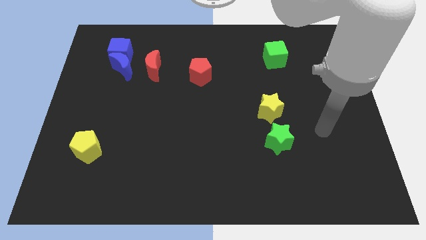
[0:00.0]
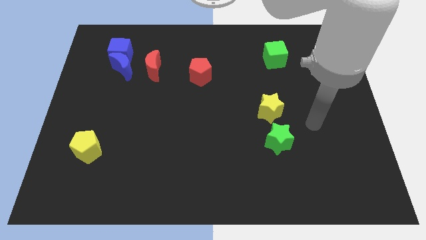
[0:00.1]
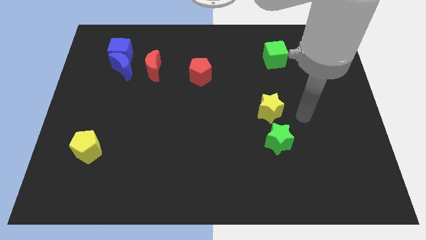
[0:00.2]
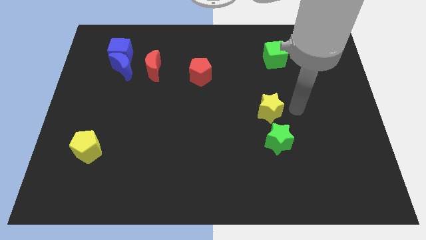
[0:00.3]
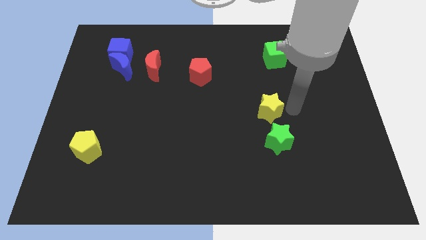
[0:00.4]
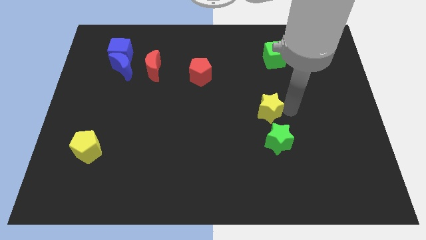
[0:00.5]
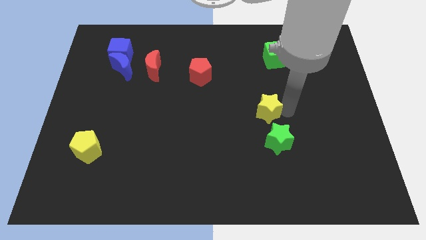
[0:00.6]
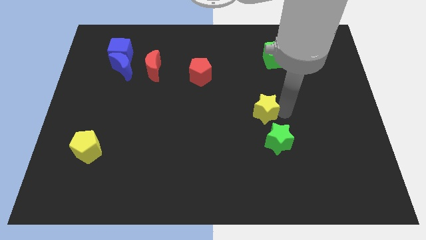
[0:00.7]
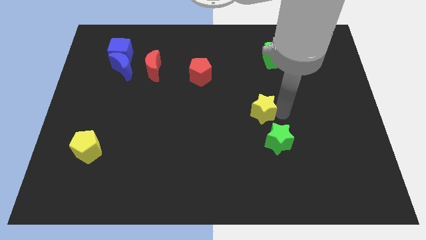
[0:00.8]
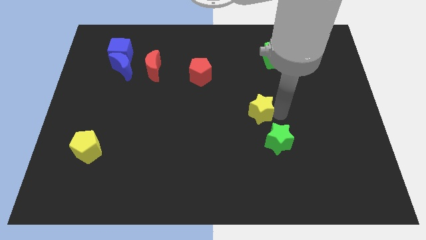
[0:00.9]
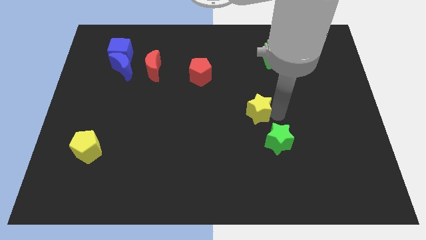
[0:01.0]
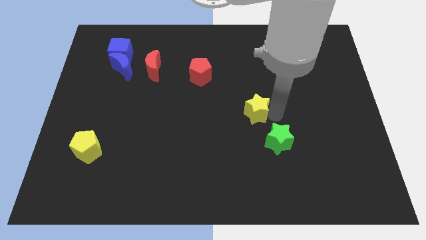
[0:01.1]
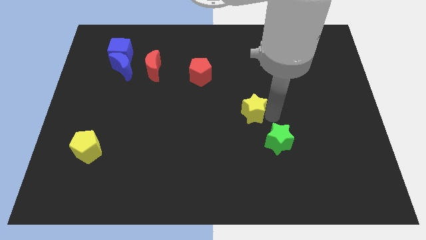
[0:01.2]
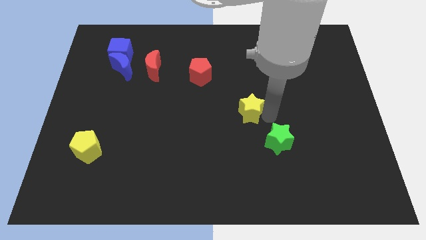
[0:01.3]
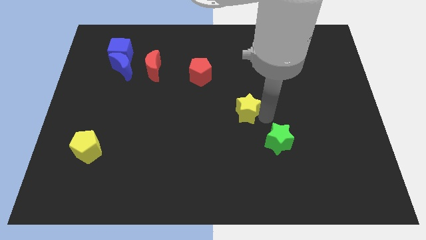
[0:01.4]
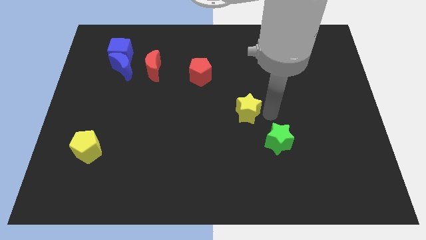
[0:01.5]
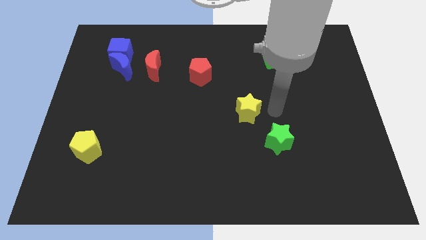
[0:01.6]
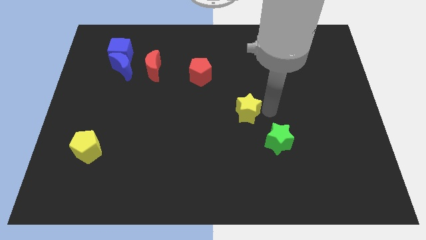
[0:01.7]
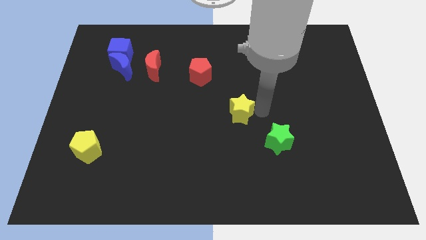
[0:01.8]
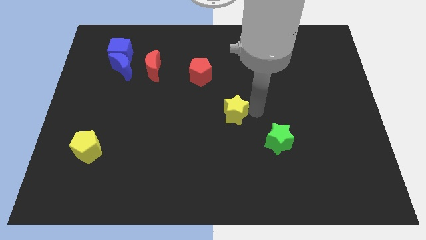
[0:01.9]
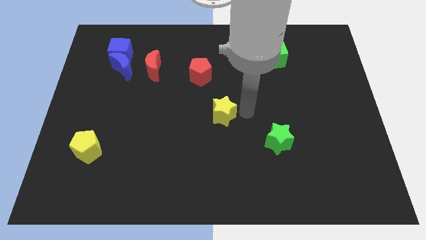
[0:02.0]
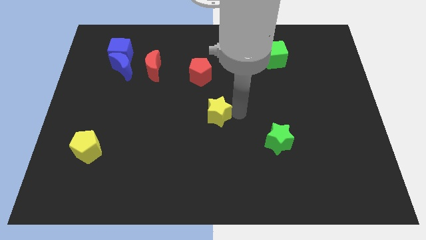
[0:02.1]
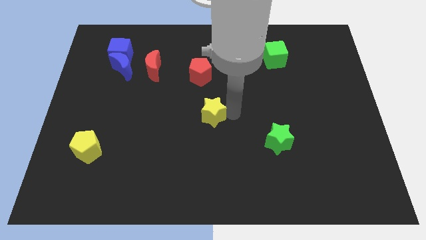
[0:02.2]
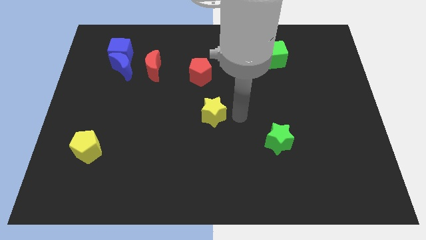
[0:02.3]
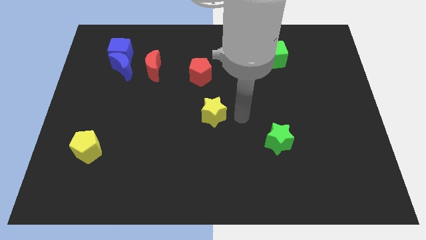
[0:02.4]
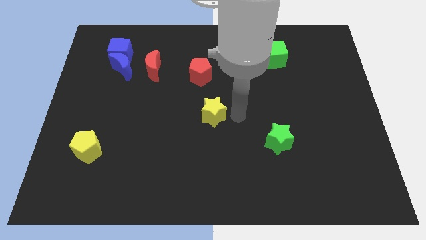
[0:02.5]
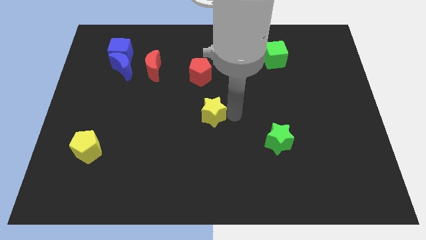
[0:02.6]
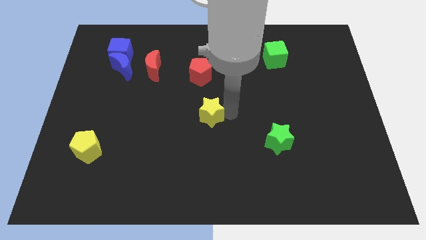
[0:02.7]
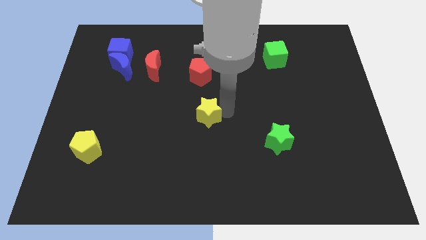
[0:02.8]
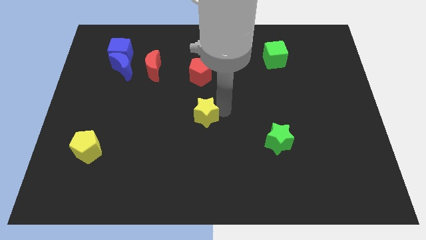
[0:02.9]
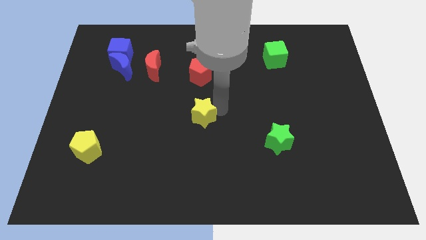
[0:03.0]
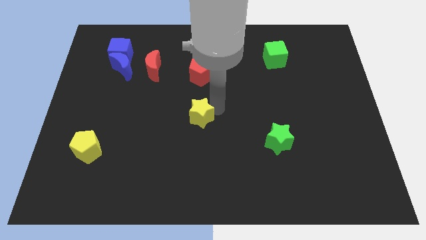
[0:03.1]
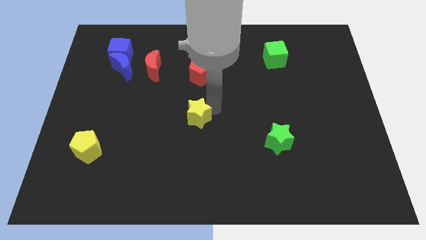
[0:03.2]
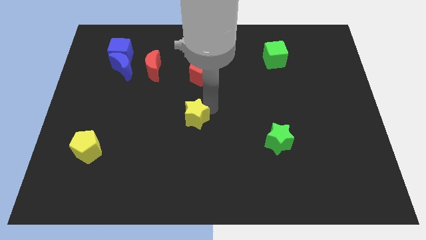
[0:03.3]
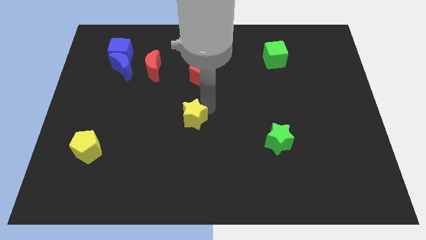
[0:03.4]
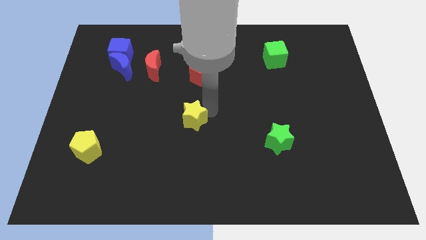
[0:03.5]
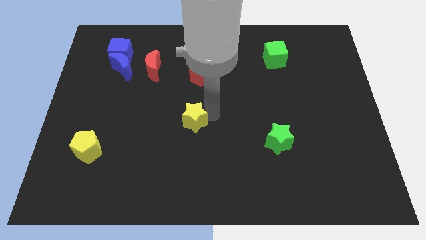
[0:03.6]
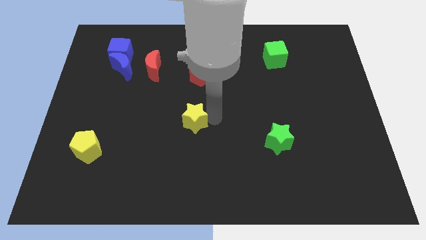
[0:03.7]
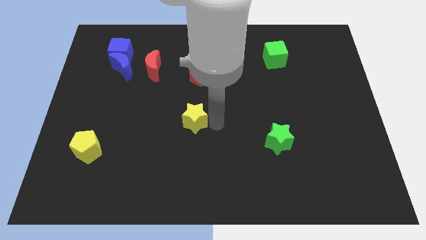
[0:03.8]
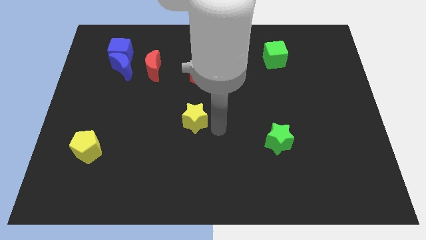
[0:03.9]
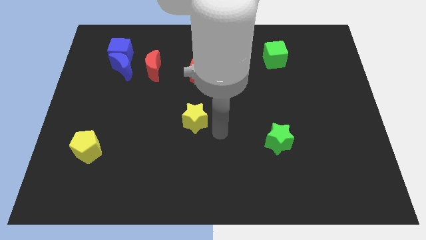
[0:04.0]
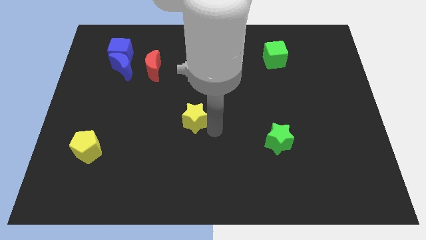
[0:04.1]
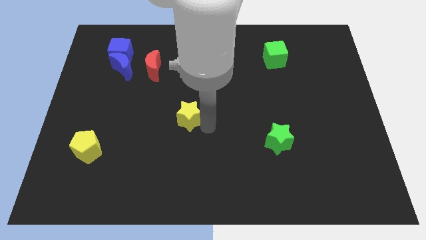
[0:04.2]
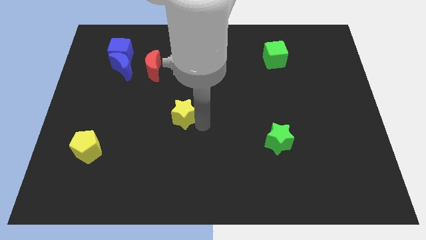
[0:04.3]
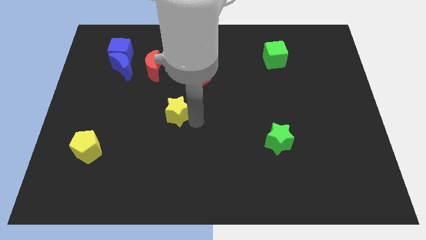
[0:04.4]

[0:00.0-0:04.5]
push the yellow star left

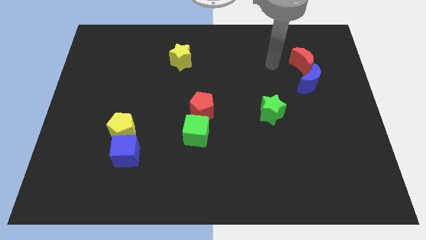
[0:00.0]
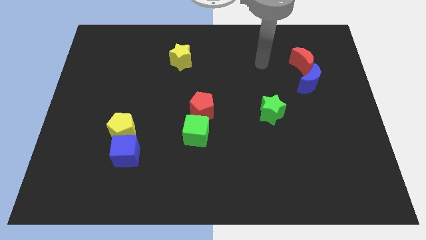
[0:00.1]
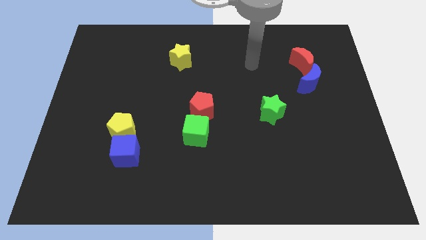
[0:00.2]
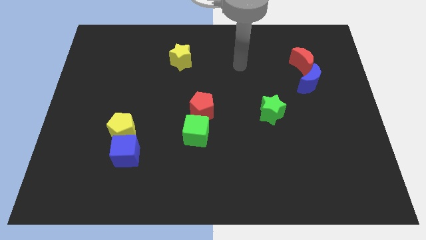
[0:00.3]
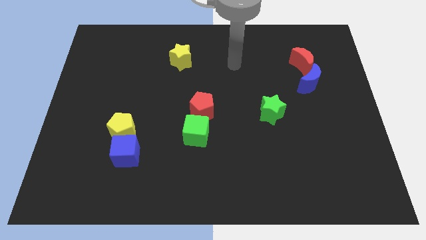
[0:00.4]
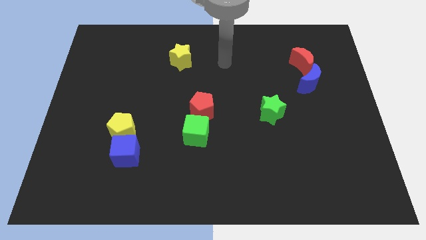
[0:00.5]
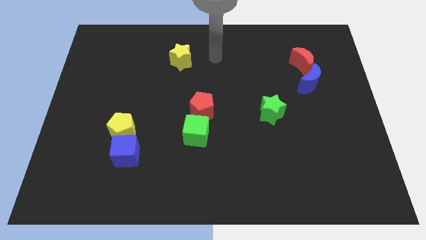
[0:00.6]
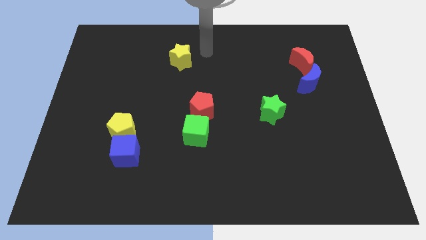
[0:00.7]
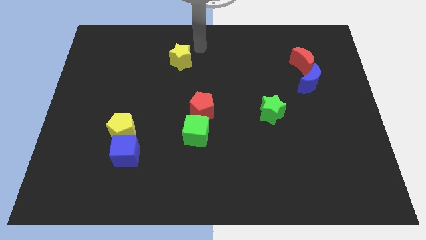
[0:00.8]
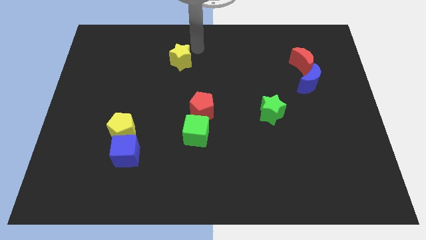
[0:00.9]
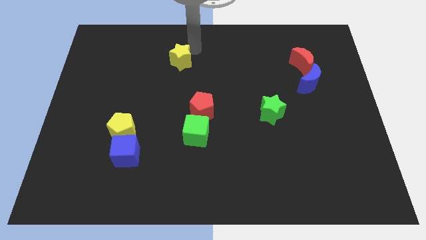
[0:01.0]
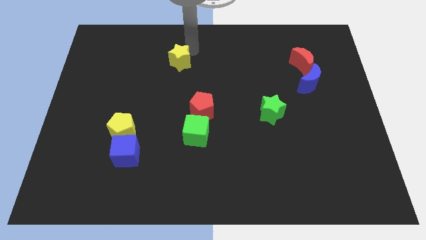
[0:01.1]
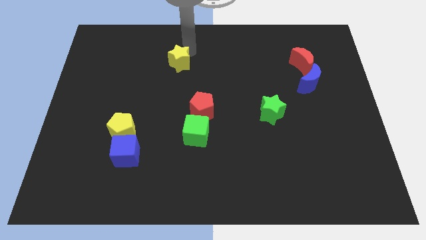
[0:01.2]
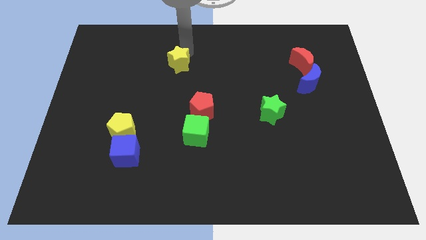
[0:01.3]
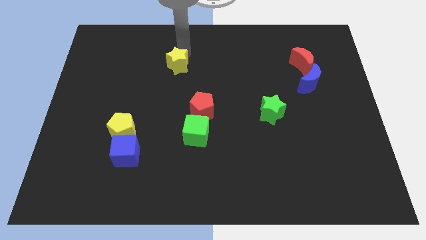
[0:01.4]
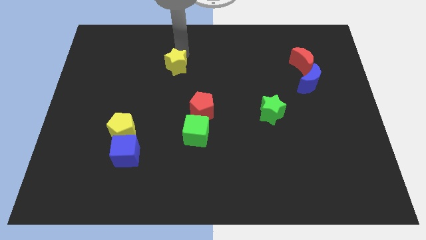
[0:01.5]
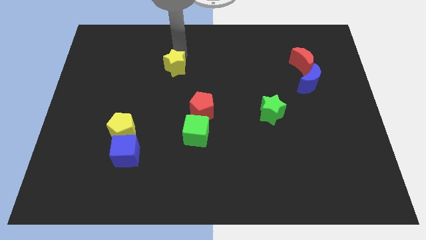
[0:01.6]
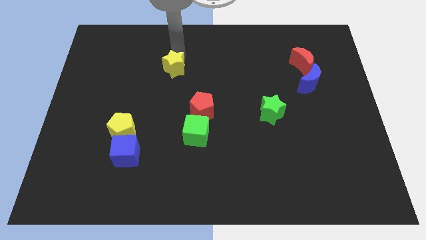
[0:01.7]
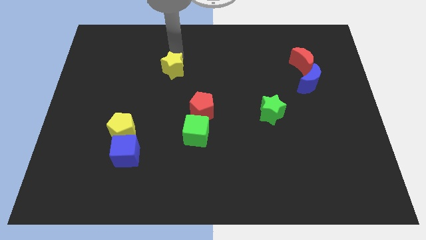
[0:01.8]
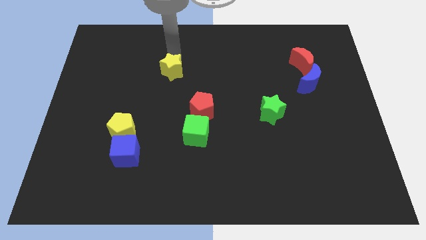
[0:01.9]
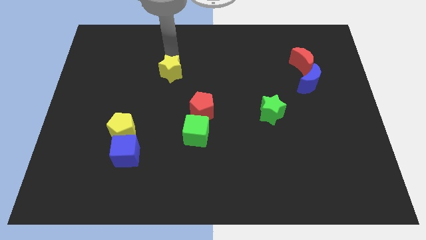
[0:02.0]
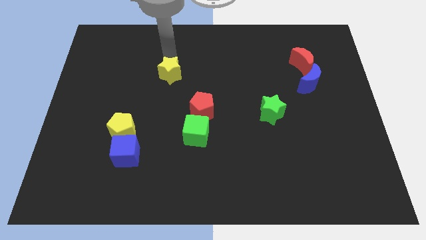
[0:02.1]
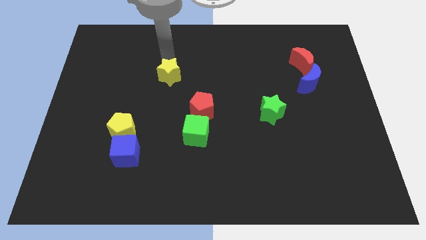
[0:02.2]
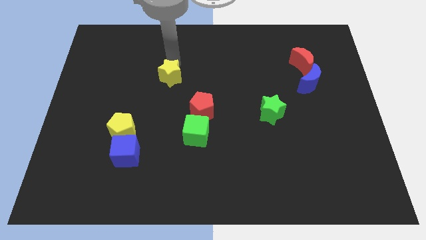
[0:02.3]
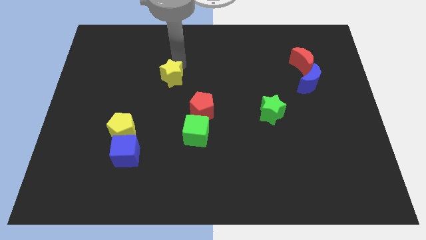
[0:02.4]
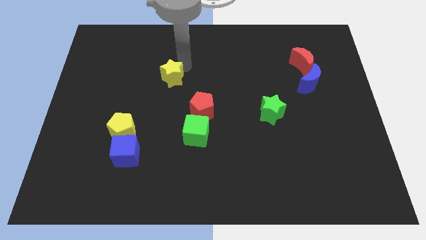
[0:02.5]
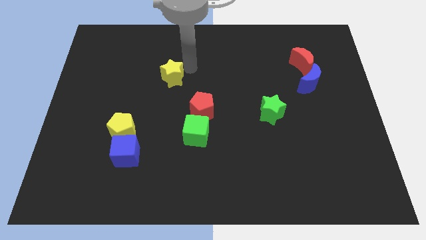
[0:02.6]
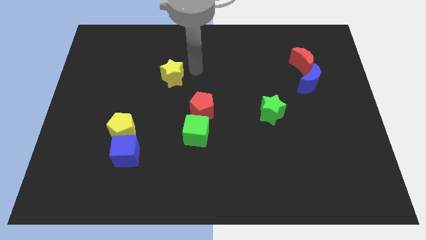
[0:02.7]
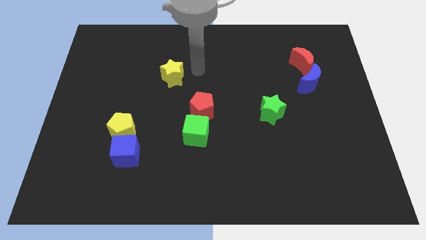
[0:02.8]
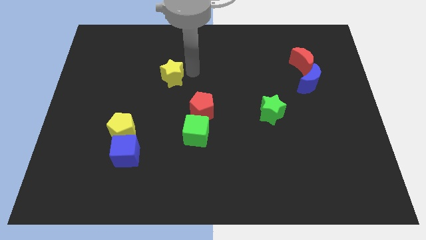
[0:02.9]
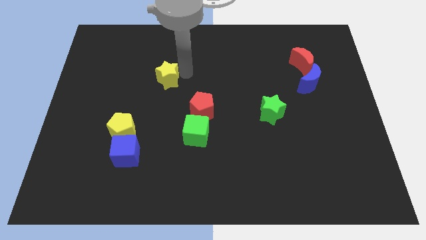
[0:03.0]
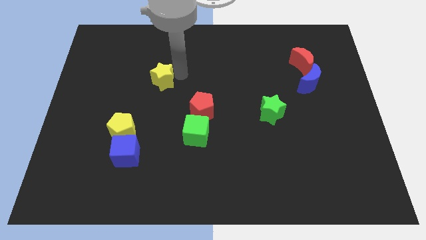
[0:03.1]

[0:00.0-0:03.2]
slightly move the yellow star down and to the left

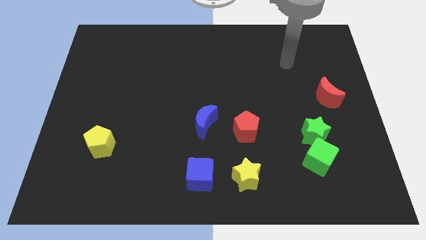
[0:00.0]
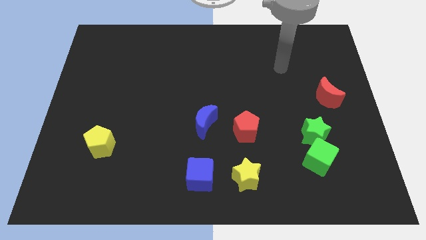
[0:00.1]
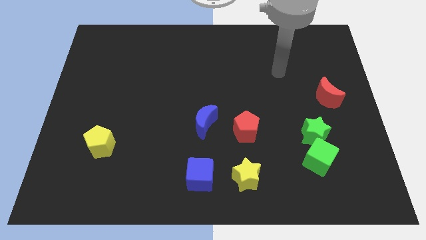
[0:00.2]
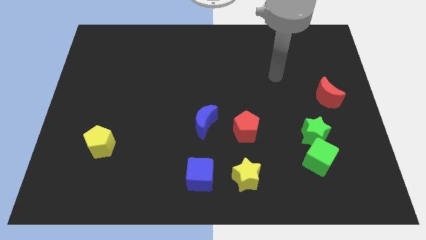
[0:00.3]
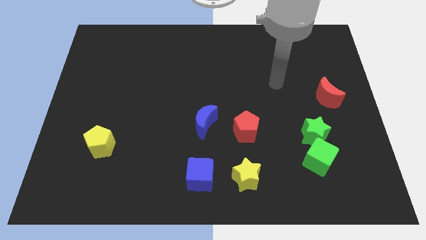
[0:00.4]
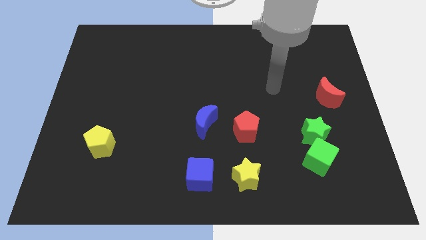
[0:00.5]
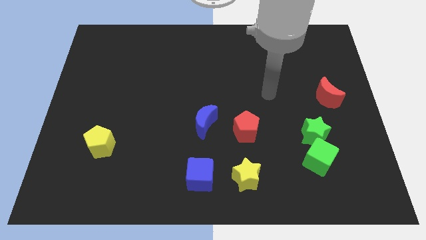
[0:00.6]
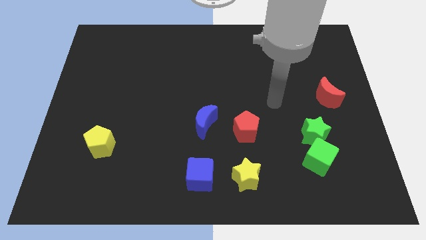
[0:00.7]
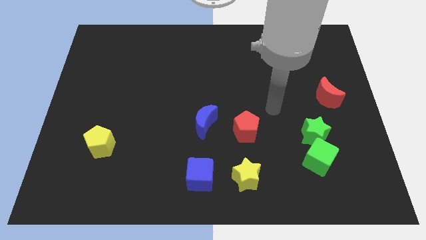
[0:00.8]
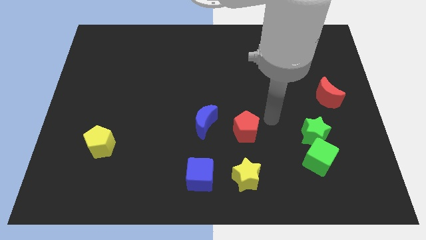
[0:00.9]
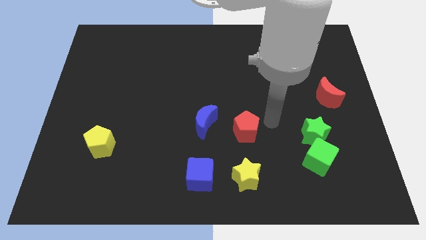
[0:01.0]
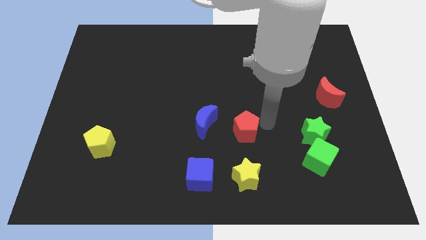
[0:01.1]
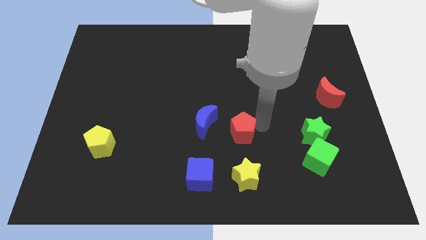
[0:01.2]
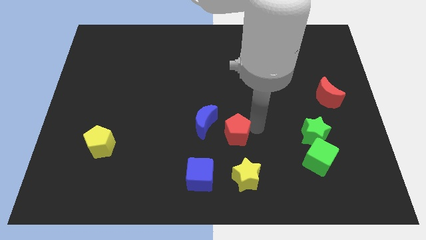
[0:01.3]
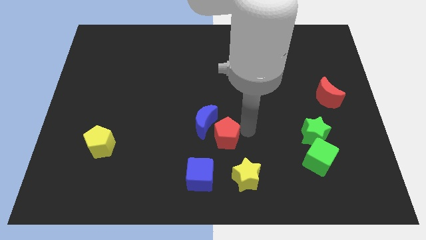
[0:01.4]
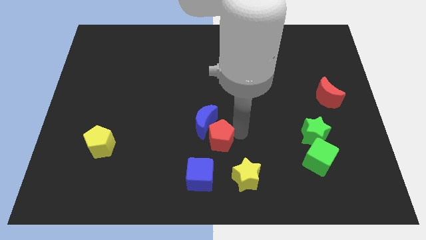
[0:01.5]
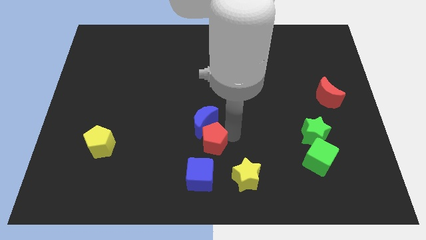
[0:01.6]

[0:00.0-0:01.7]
push the red pentagon a bit left
